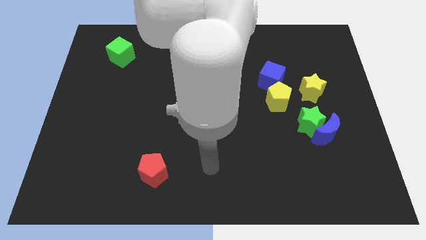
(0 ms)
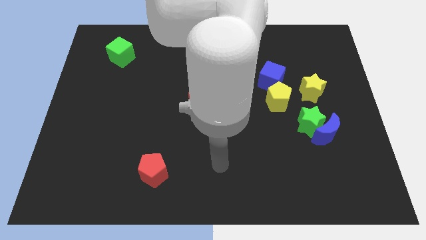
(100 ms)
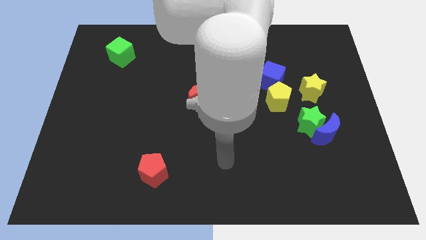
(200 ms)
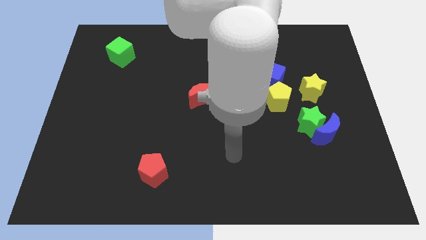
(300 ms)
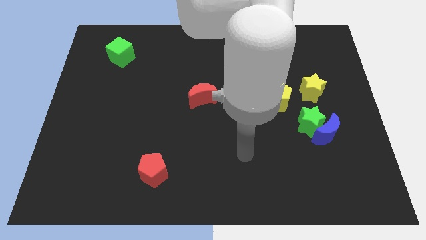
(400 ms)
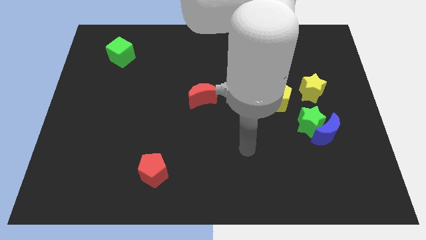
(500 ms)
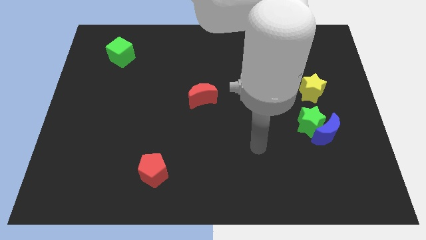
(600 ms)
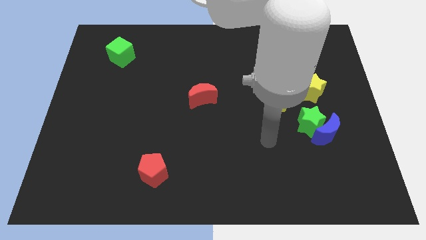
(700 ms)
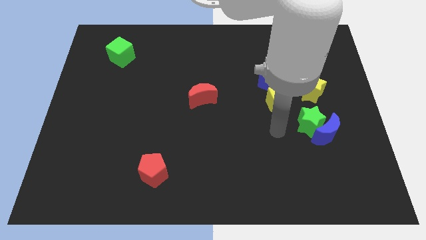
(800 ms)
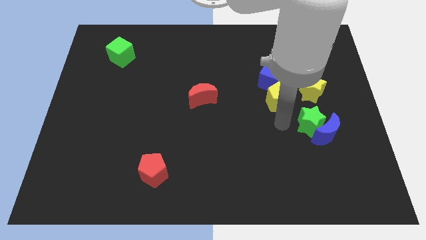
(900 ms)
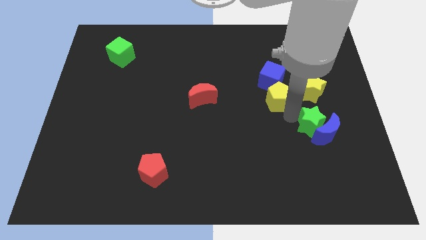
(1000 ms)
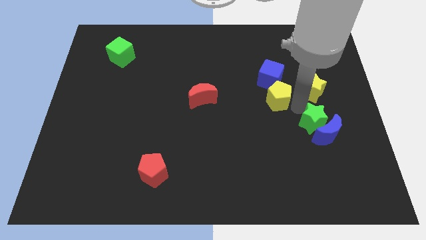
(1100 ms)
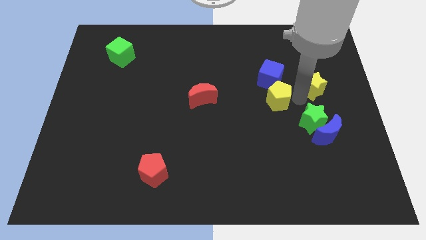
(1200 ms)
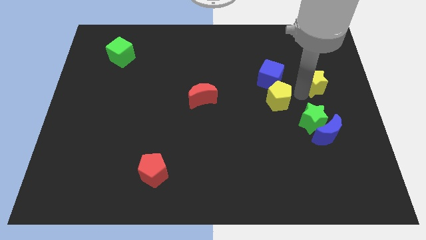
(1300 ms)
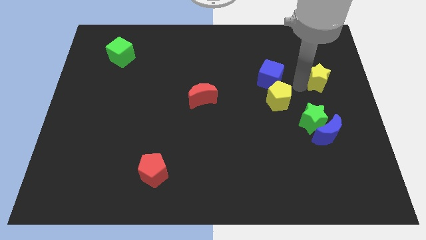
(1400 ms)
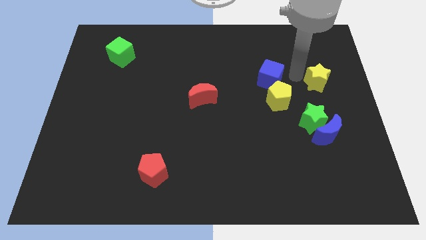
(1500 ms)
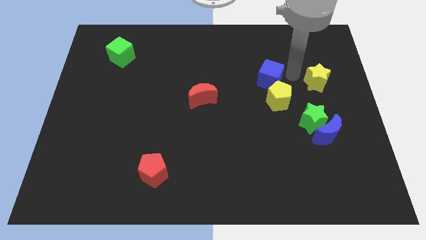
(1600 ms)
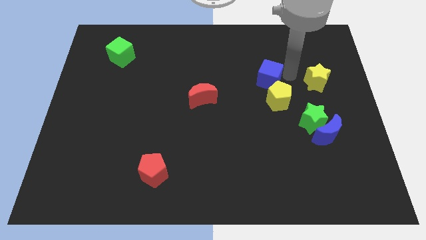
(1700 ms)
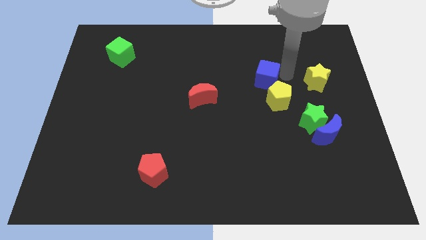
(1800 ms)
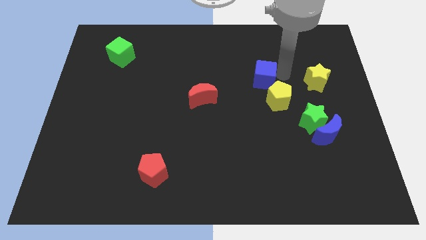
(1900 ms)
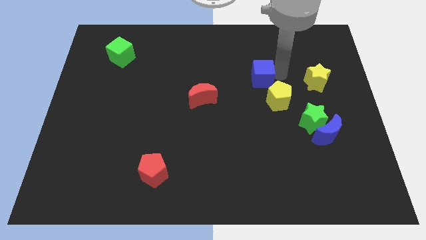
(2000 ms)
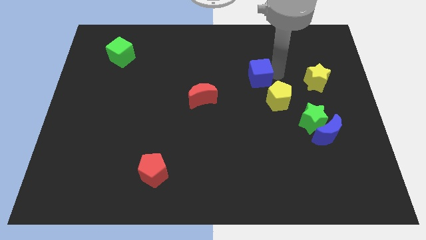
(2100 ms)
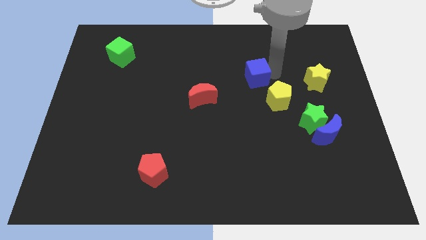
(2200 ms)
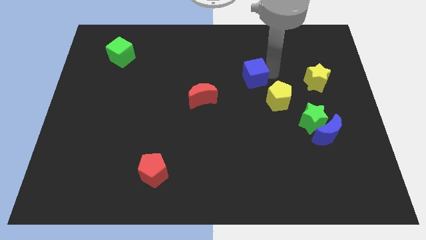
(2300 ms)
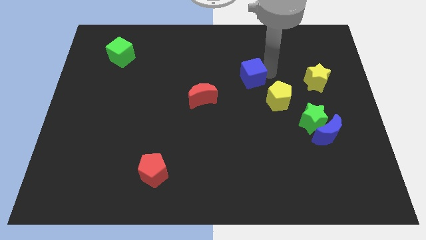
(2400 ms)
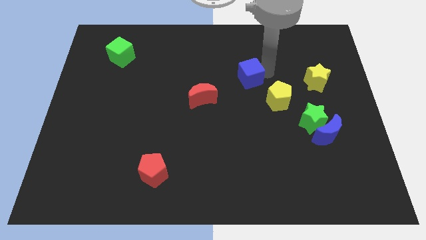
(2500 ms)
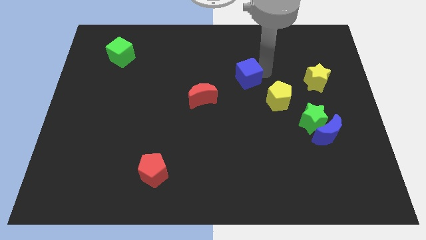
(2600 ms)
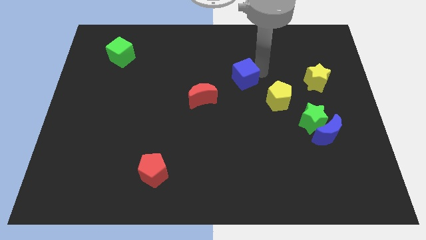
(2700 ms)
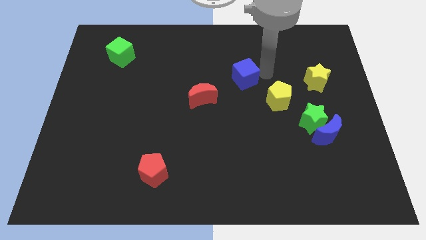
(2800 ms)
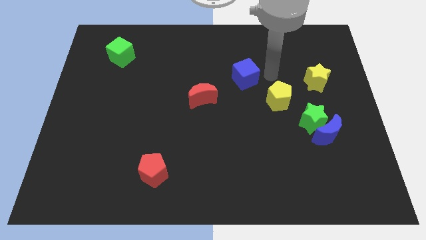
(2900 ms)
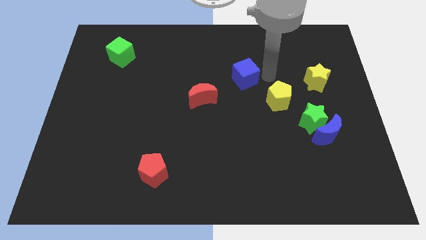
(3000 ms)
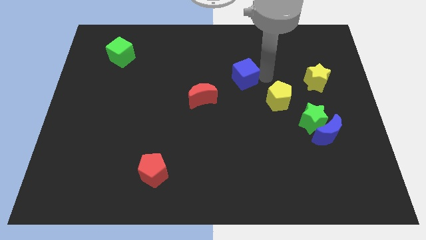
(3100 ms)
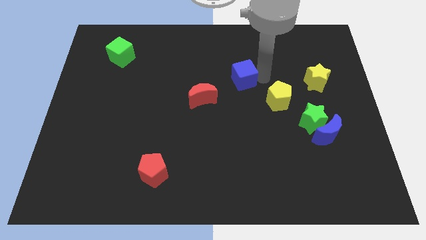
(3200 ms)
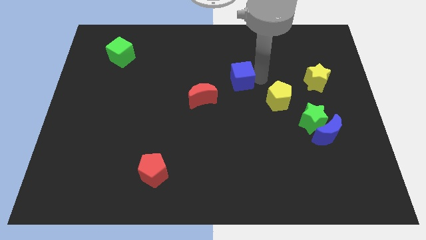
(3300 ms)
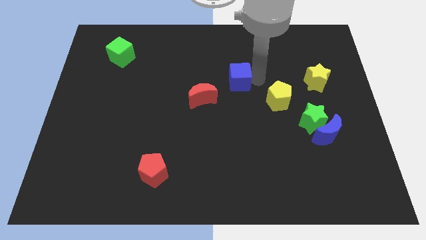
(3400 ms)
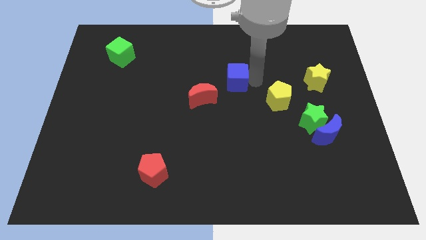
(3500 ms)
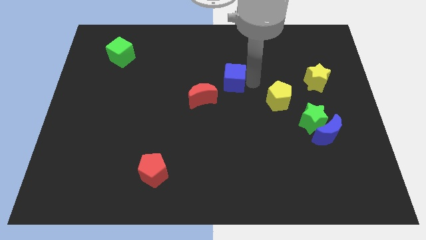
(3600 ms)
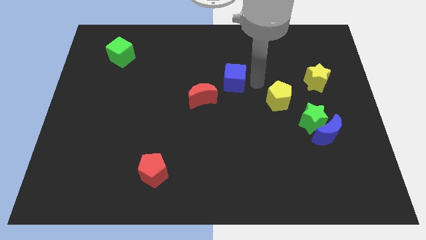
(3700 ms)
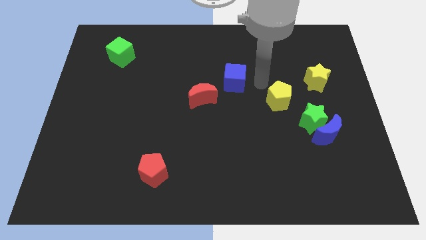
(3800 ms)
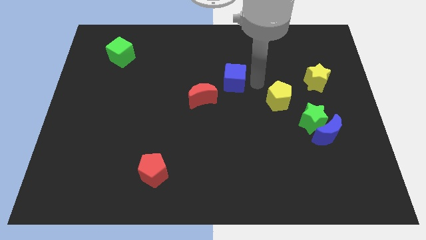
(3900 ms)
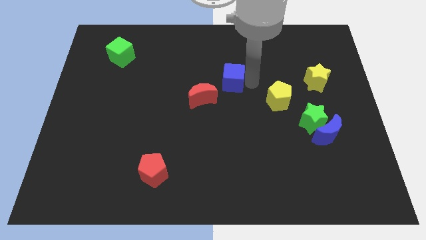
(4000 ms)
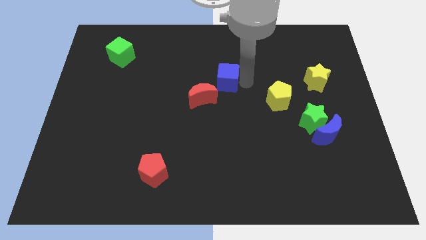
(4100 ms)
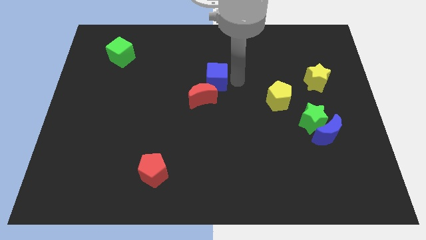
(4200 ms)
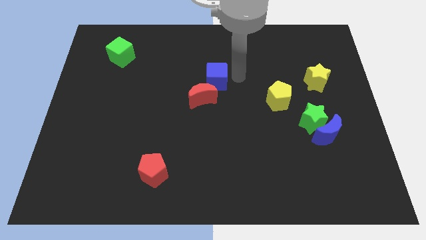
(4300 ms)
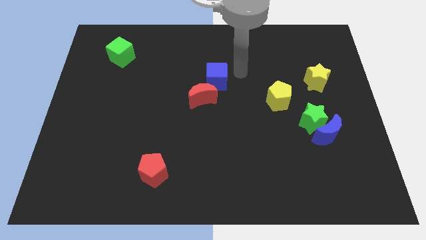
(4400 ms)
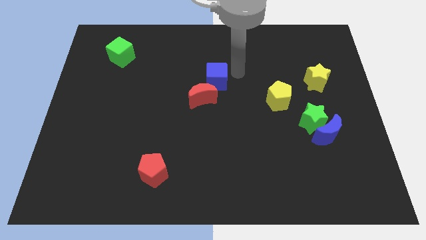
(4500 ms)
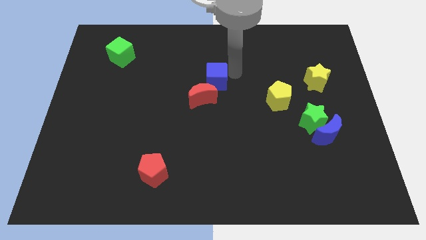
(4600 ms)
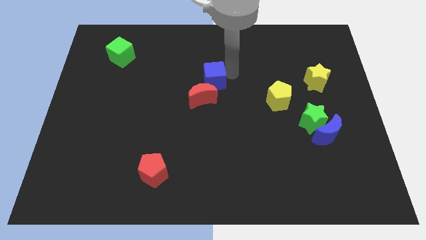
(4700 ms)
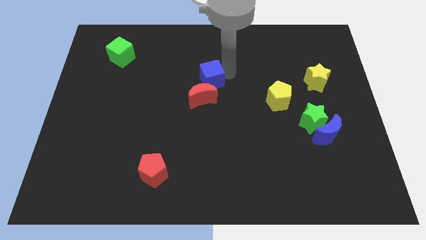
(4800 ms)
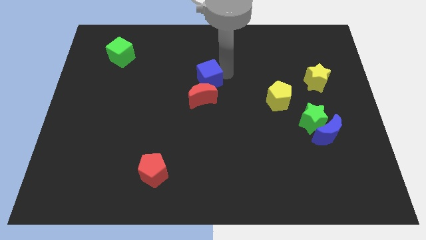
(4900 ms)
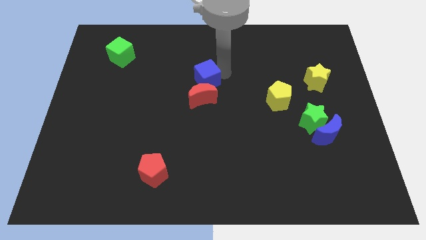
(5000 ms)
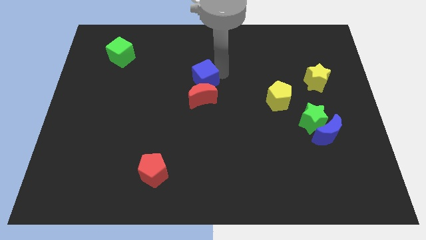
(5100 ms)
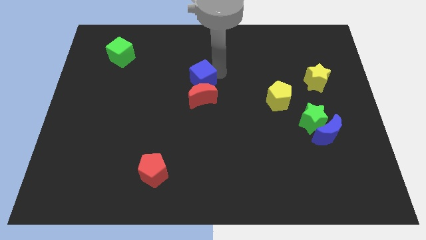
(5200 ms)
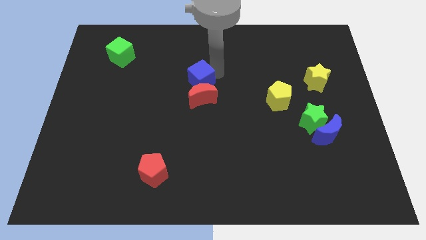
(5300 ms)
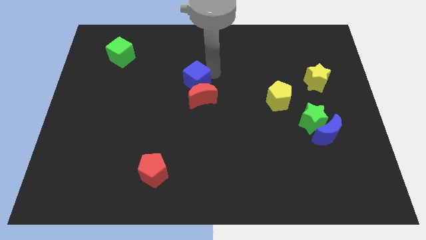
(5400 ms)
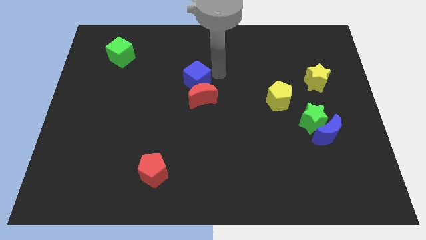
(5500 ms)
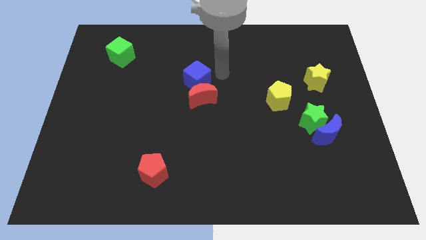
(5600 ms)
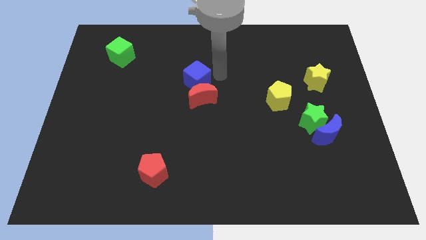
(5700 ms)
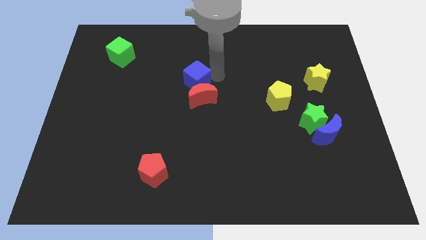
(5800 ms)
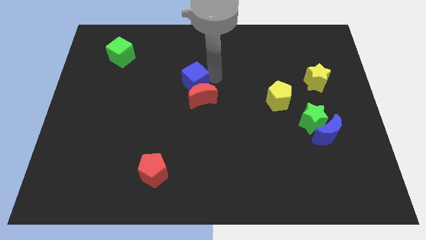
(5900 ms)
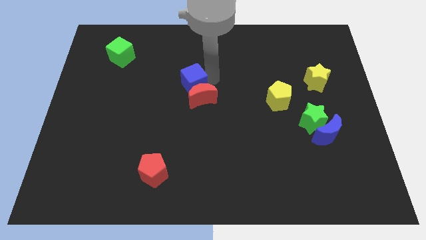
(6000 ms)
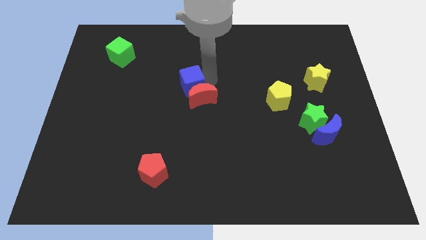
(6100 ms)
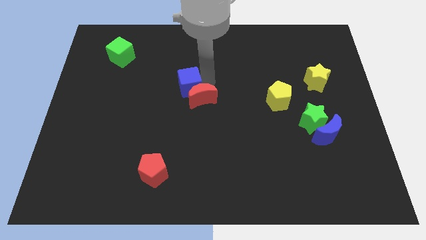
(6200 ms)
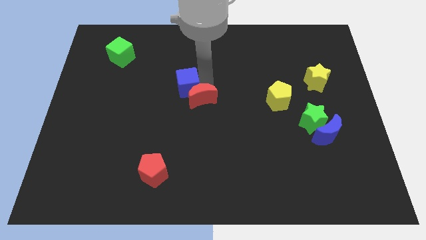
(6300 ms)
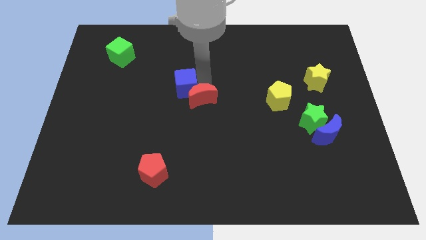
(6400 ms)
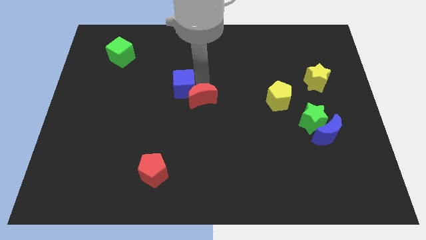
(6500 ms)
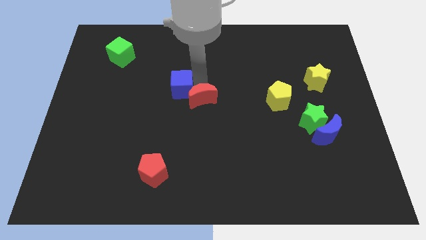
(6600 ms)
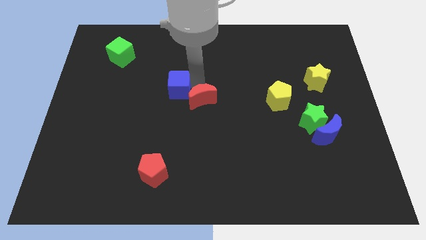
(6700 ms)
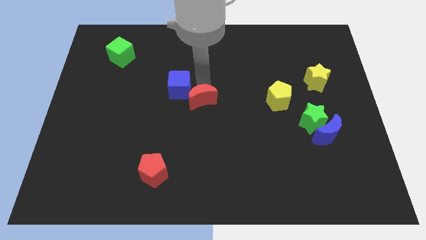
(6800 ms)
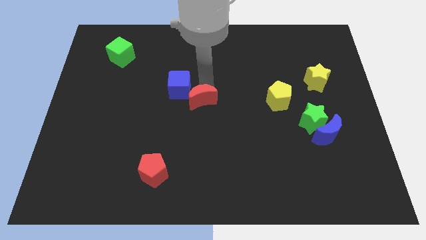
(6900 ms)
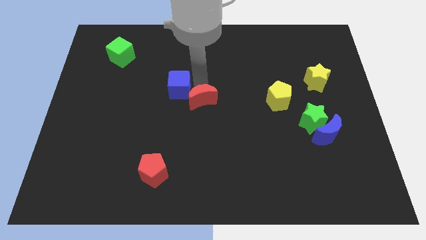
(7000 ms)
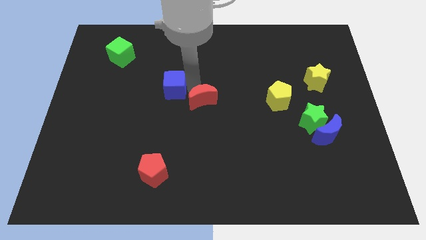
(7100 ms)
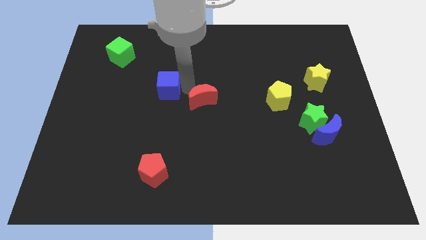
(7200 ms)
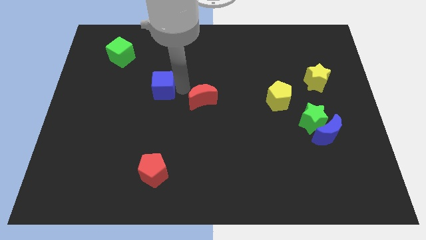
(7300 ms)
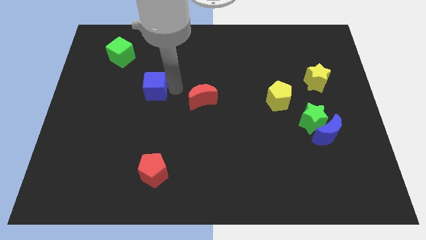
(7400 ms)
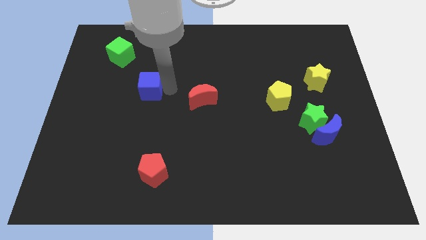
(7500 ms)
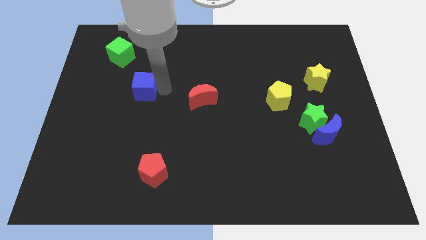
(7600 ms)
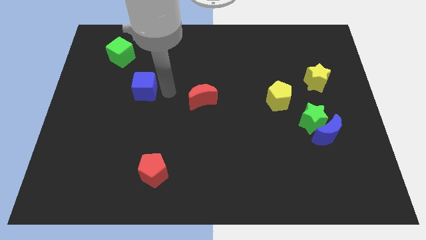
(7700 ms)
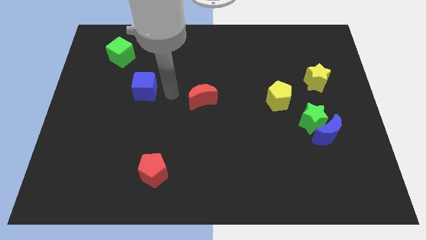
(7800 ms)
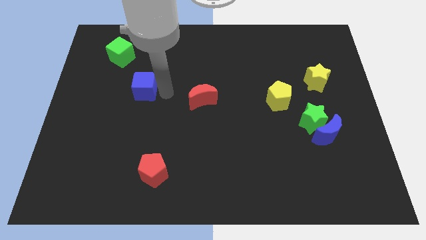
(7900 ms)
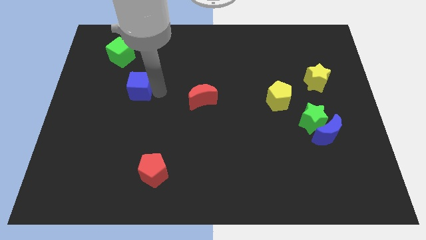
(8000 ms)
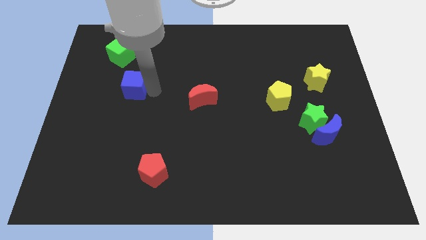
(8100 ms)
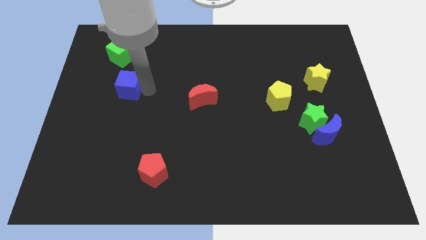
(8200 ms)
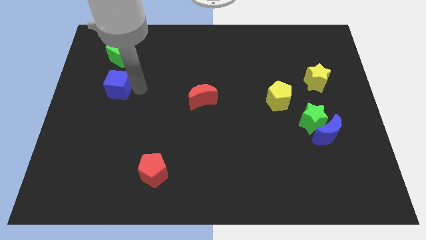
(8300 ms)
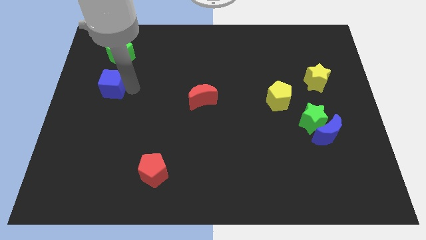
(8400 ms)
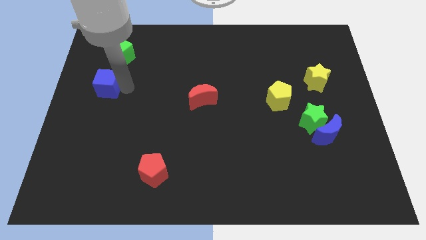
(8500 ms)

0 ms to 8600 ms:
put the blue cube to the left side
